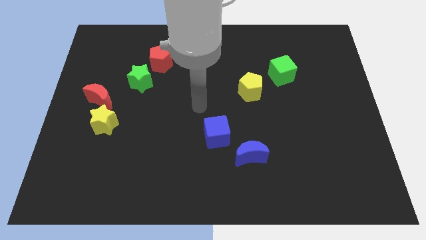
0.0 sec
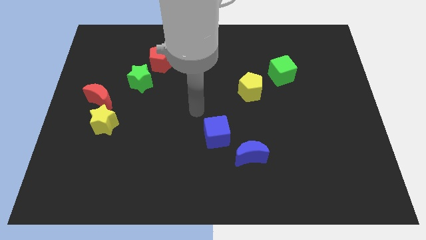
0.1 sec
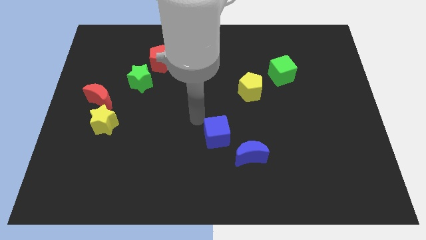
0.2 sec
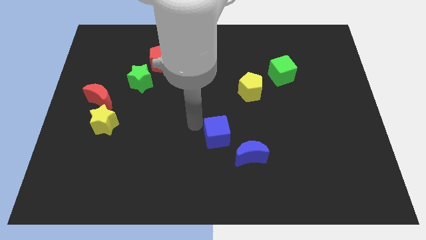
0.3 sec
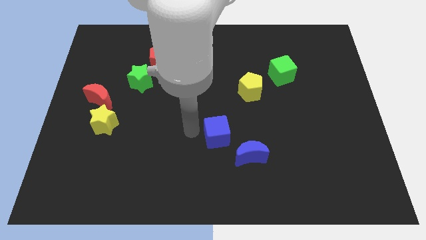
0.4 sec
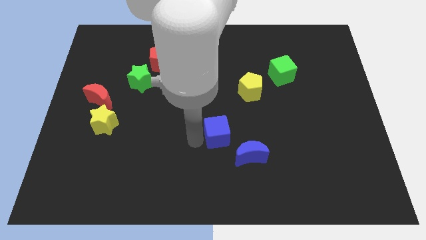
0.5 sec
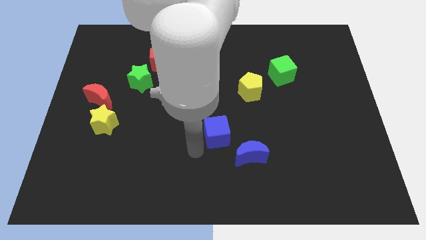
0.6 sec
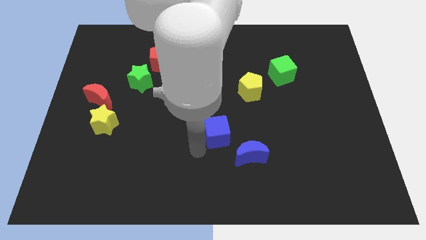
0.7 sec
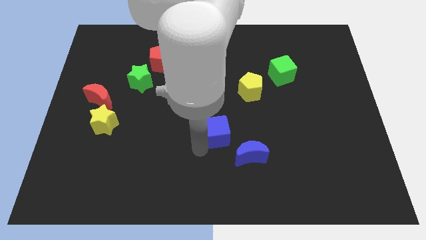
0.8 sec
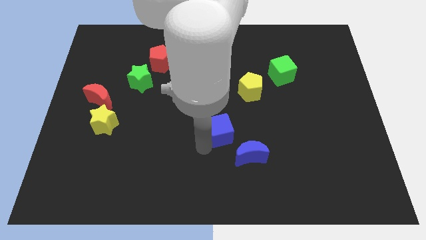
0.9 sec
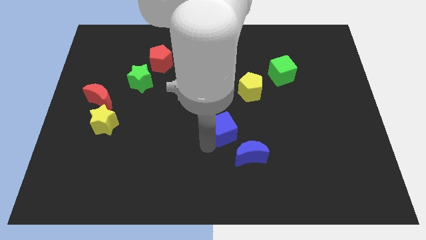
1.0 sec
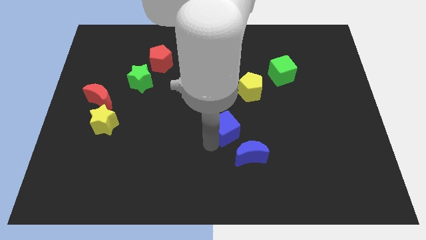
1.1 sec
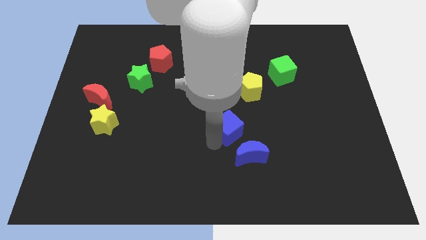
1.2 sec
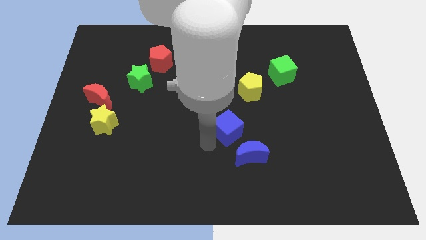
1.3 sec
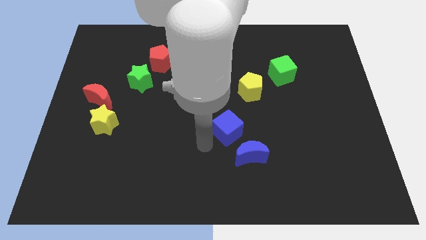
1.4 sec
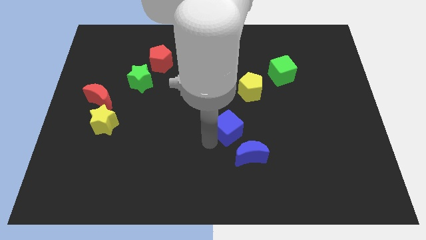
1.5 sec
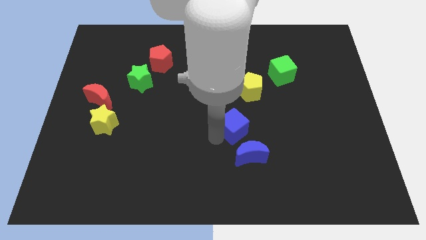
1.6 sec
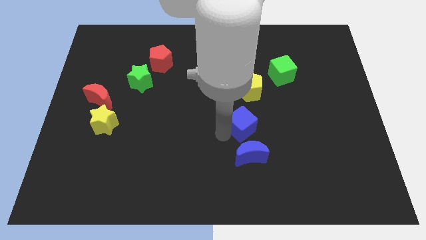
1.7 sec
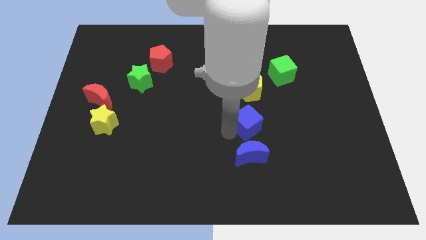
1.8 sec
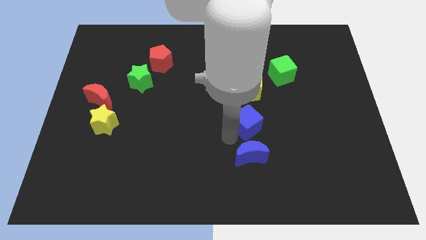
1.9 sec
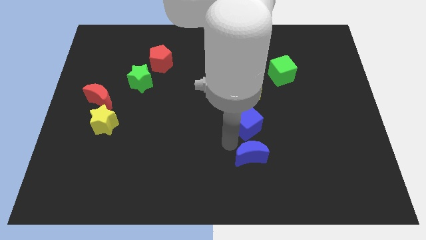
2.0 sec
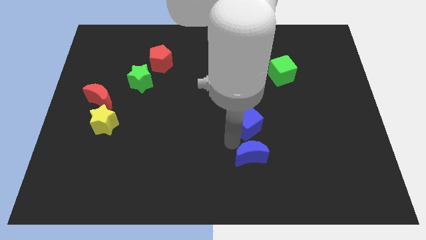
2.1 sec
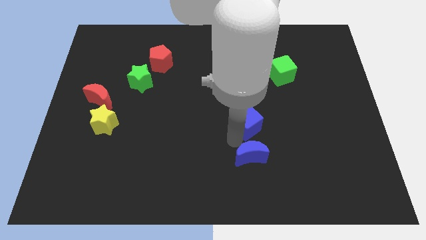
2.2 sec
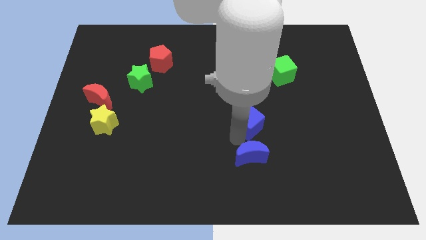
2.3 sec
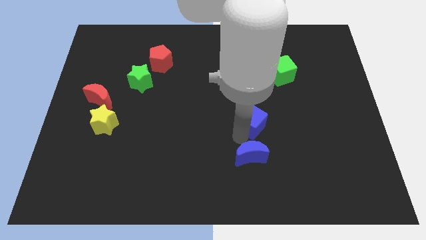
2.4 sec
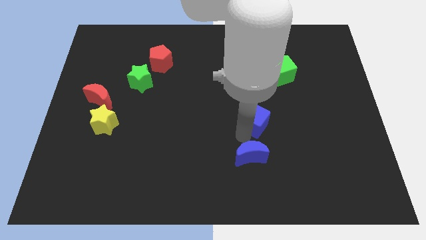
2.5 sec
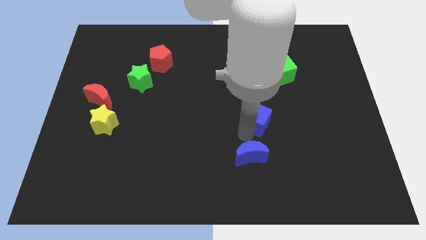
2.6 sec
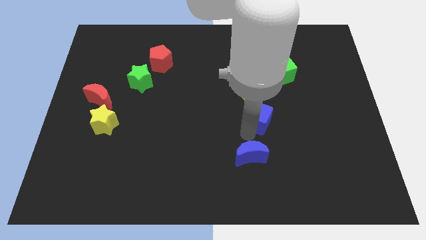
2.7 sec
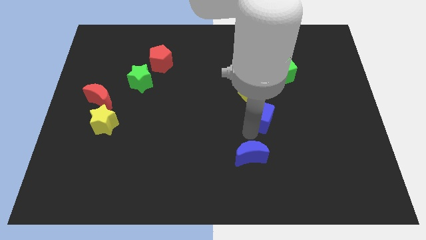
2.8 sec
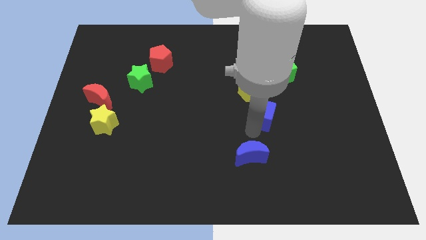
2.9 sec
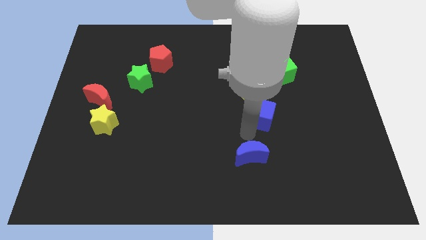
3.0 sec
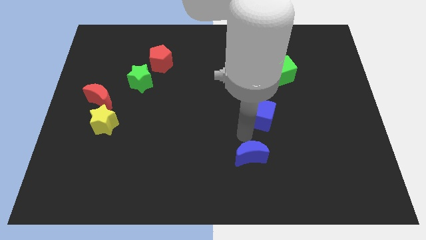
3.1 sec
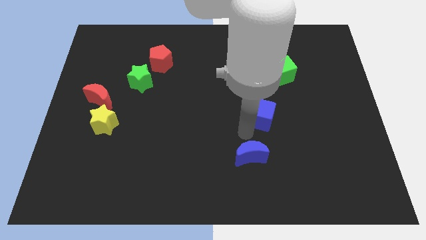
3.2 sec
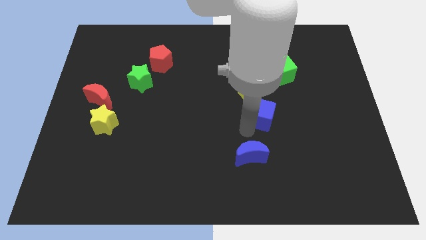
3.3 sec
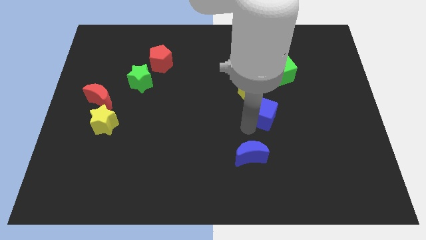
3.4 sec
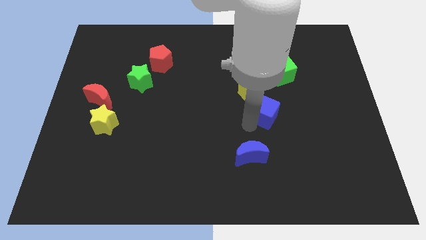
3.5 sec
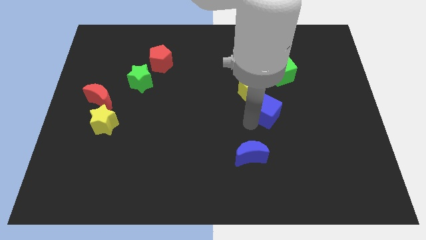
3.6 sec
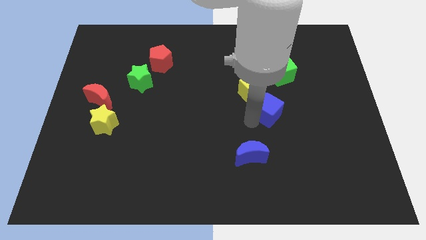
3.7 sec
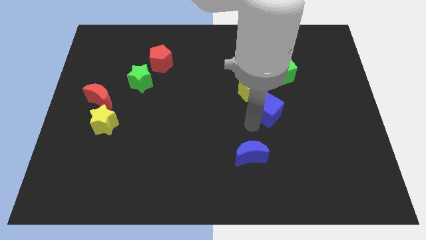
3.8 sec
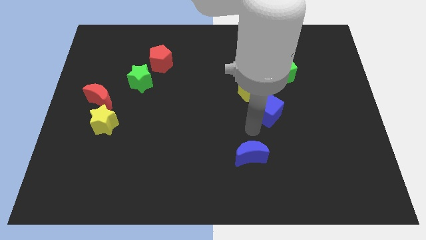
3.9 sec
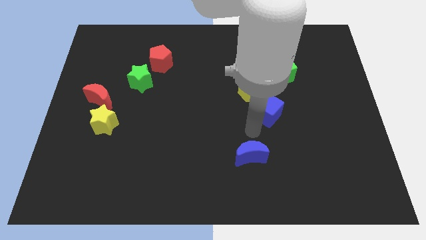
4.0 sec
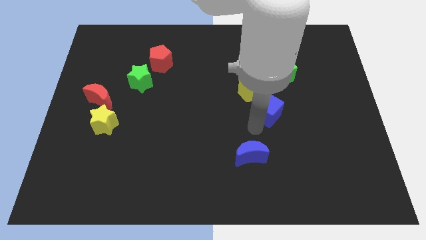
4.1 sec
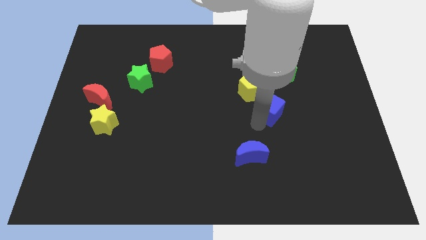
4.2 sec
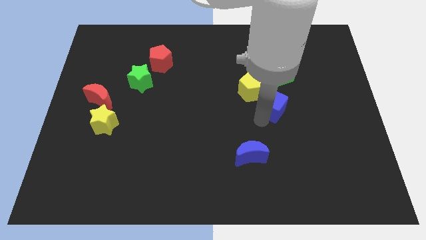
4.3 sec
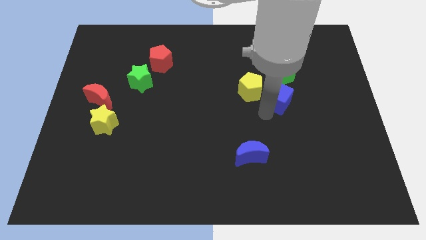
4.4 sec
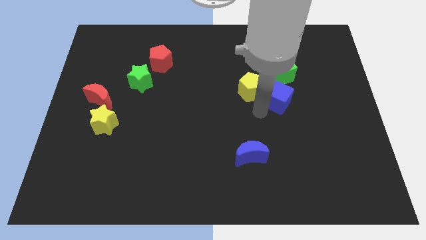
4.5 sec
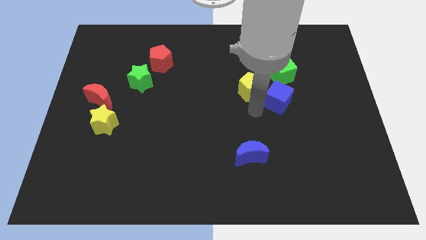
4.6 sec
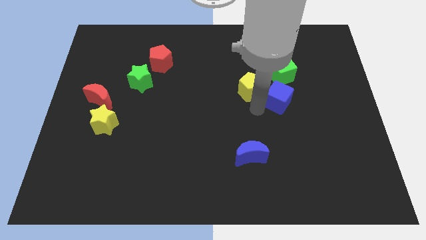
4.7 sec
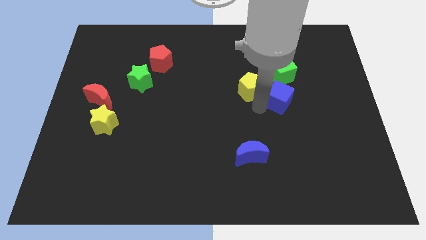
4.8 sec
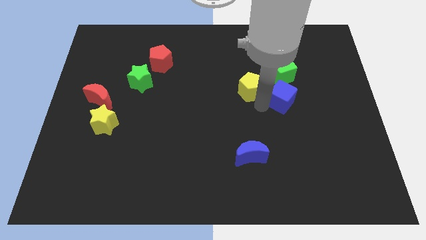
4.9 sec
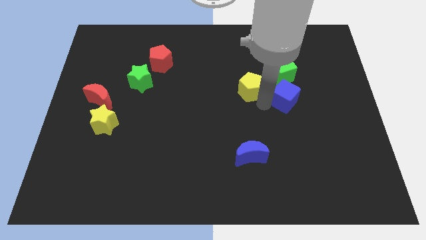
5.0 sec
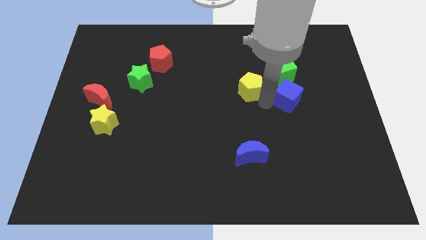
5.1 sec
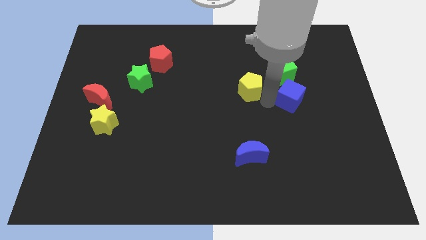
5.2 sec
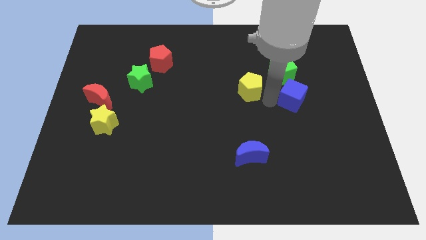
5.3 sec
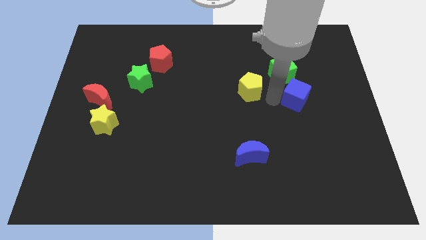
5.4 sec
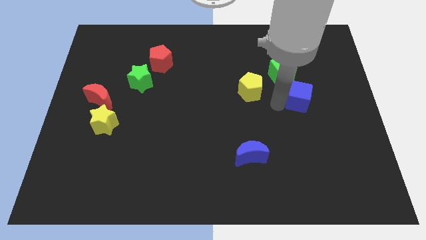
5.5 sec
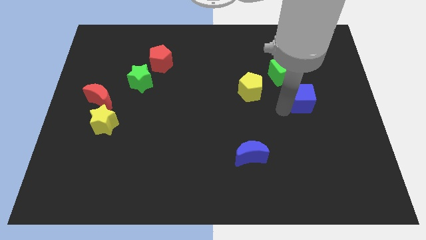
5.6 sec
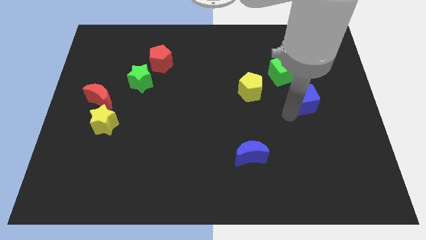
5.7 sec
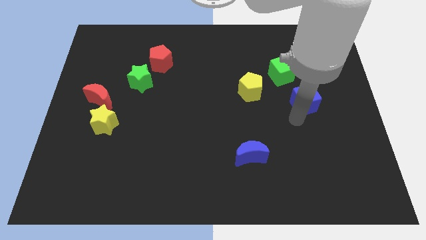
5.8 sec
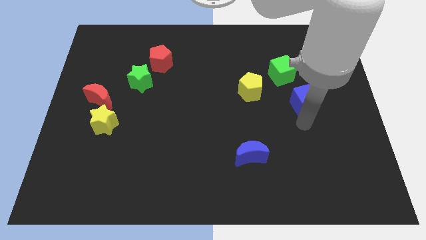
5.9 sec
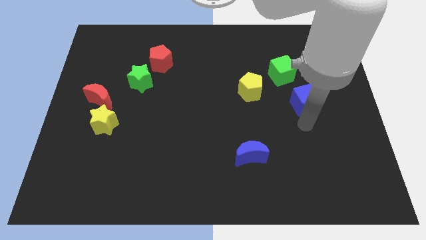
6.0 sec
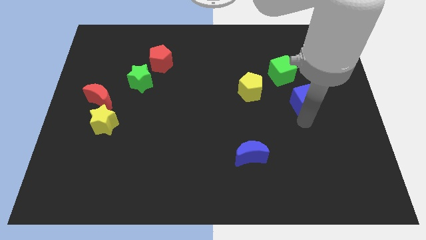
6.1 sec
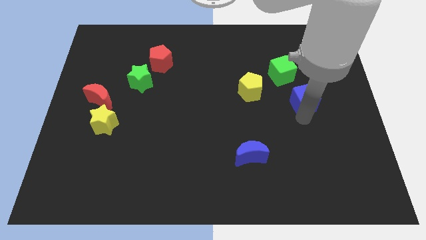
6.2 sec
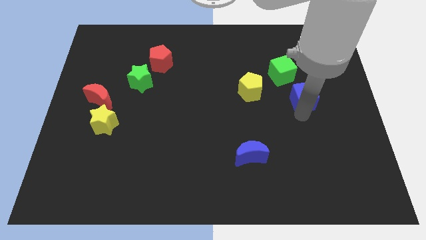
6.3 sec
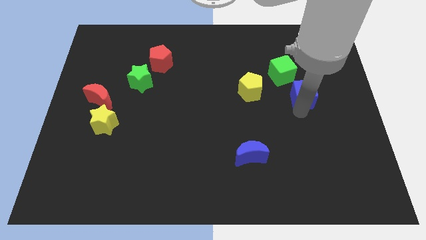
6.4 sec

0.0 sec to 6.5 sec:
slide the blue cube up and then right

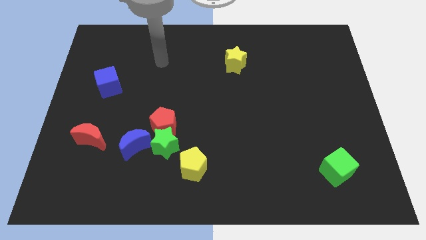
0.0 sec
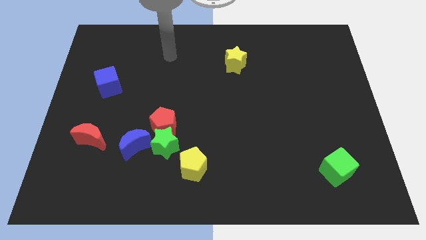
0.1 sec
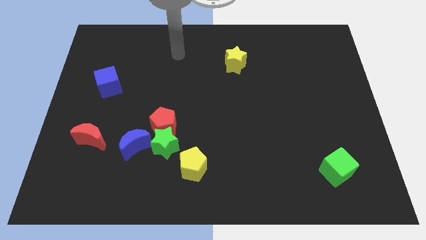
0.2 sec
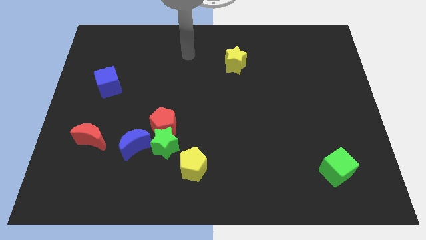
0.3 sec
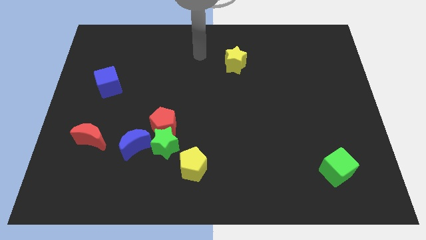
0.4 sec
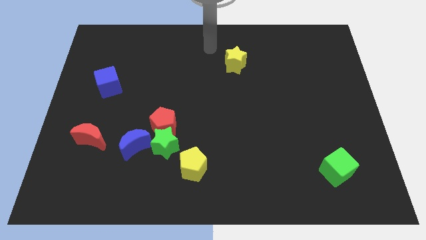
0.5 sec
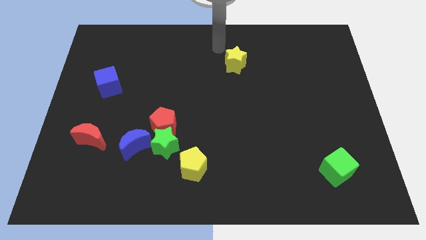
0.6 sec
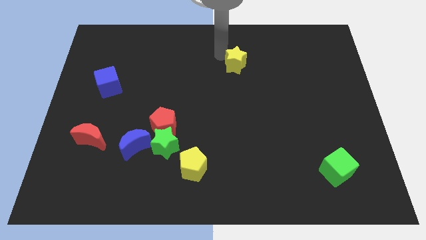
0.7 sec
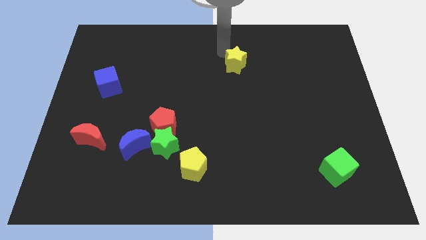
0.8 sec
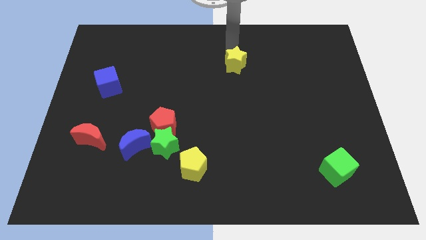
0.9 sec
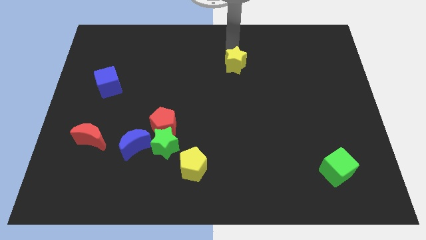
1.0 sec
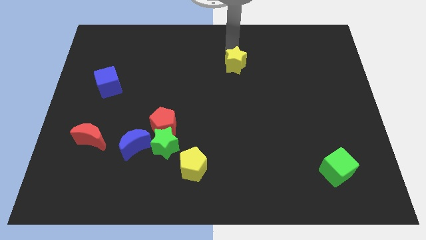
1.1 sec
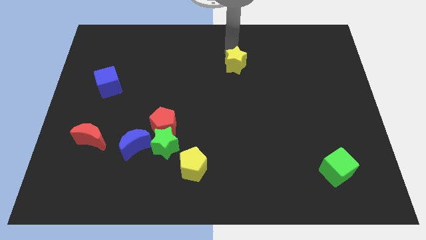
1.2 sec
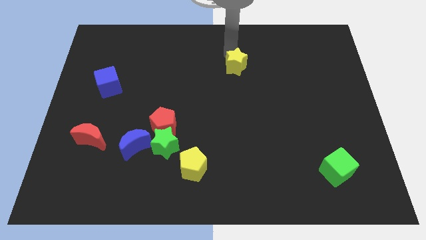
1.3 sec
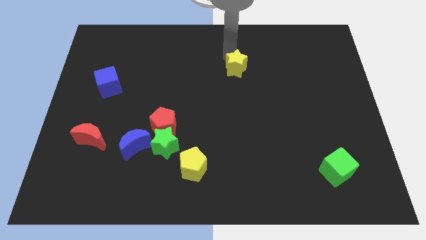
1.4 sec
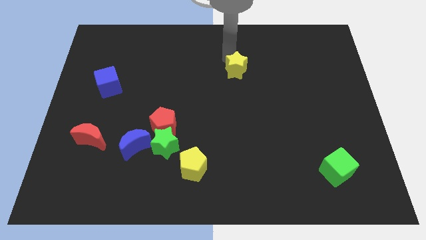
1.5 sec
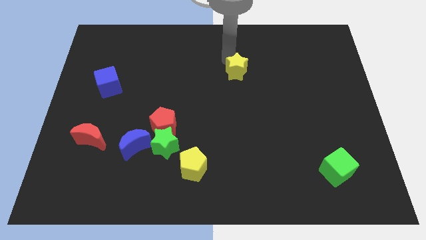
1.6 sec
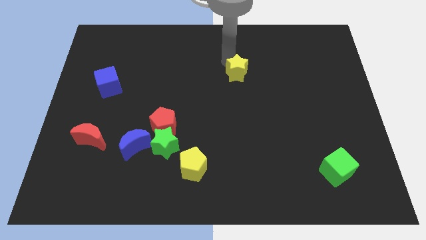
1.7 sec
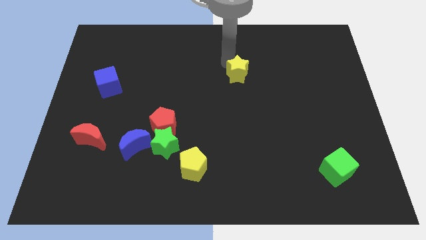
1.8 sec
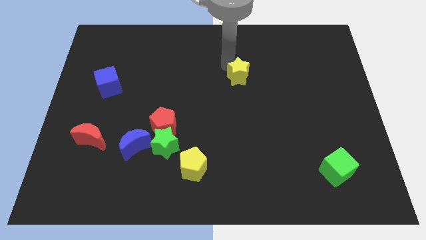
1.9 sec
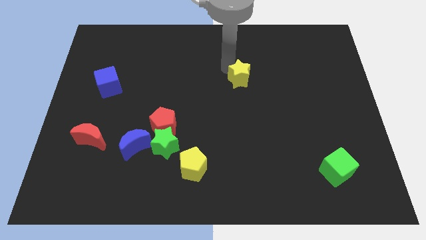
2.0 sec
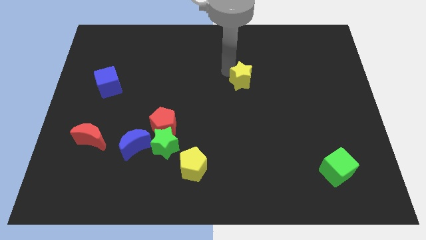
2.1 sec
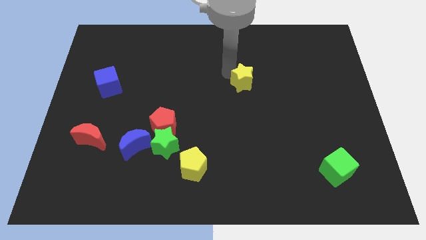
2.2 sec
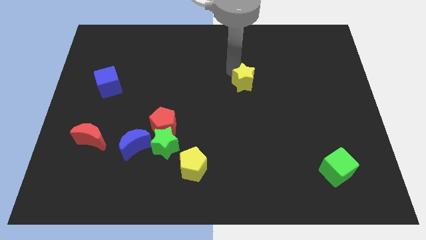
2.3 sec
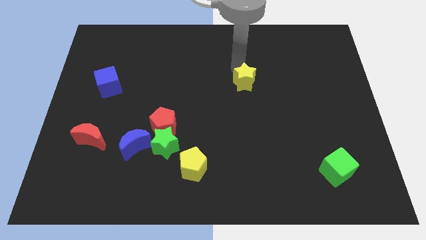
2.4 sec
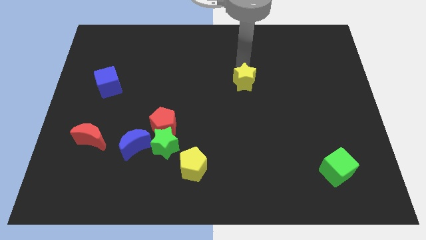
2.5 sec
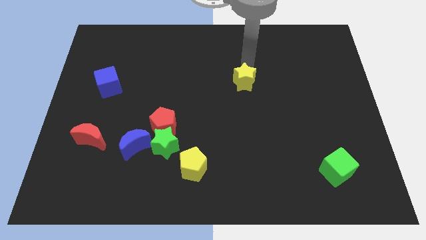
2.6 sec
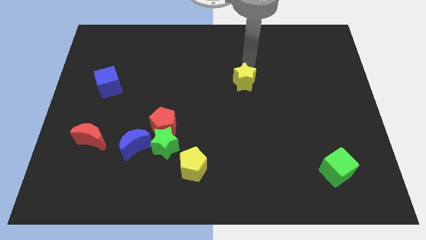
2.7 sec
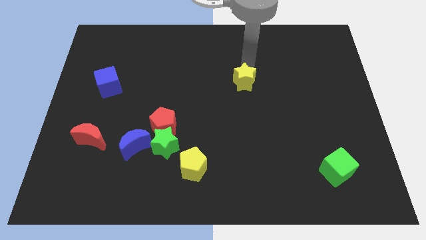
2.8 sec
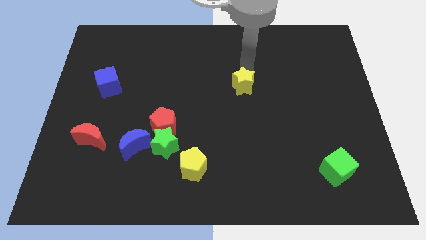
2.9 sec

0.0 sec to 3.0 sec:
slide the yellow star a little bit down
